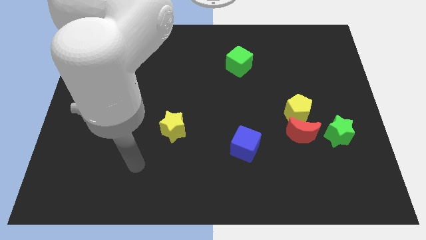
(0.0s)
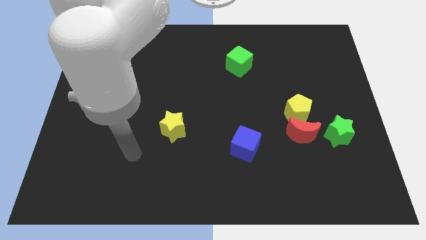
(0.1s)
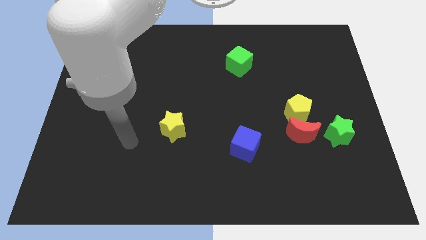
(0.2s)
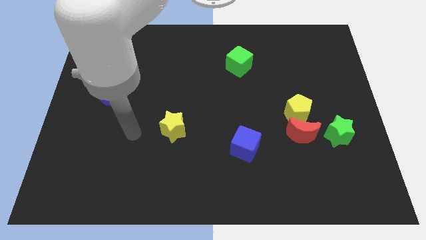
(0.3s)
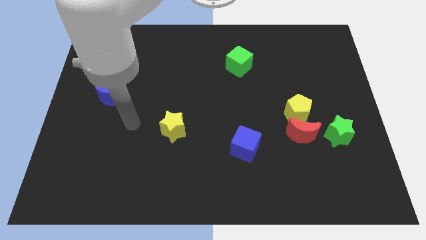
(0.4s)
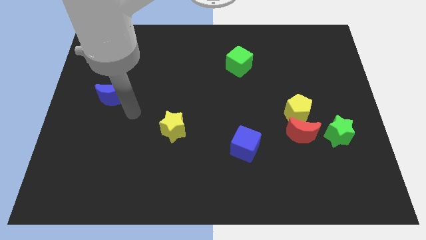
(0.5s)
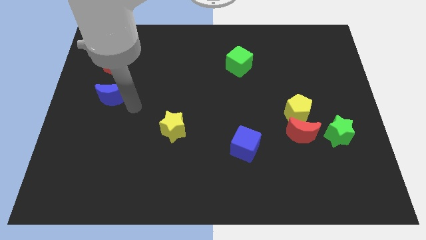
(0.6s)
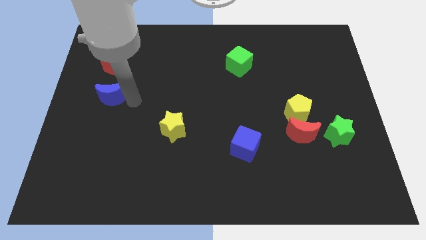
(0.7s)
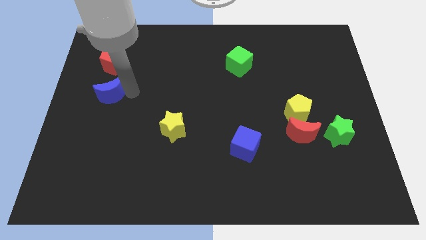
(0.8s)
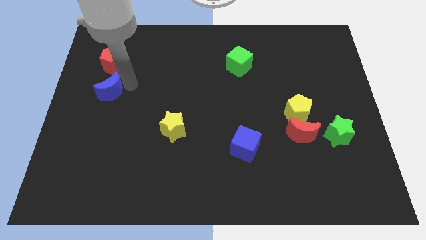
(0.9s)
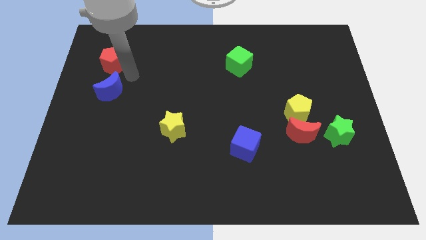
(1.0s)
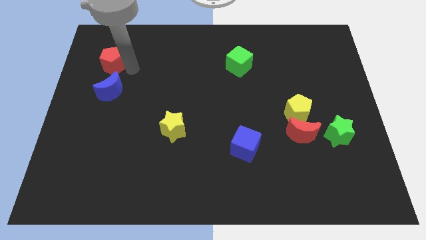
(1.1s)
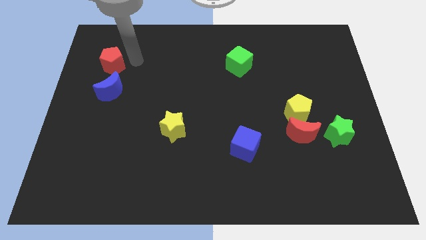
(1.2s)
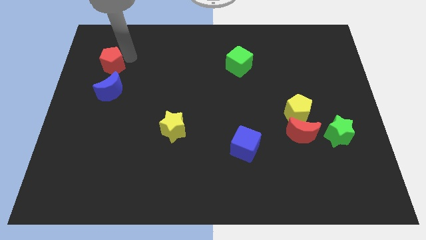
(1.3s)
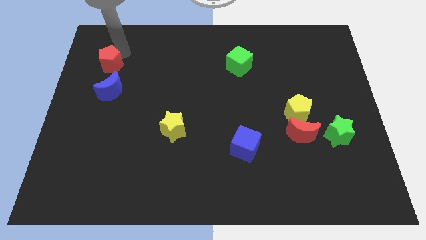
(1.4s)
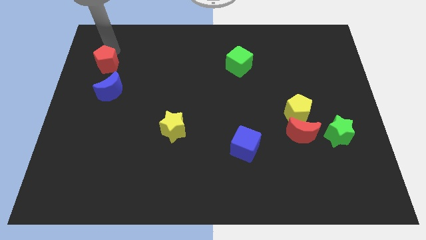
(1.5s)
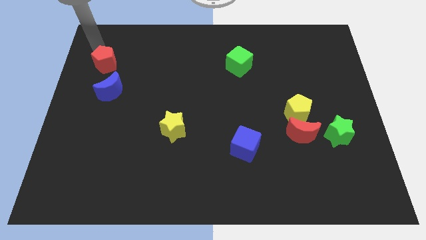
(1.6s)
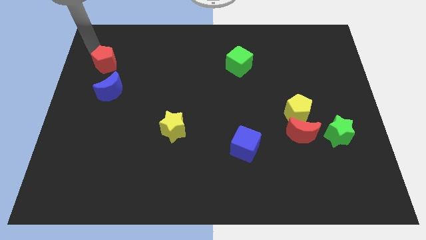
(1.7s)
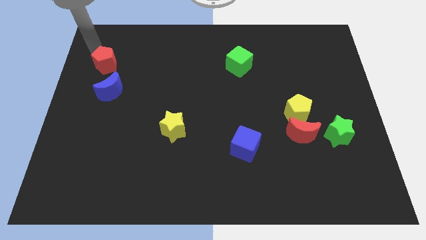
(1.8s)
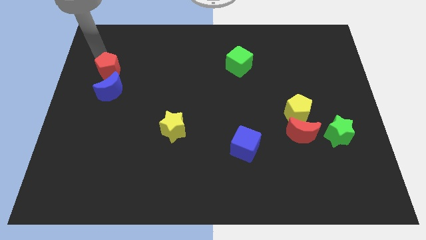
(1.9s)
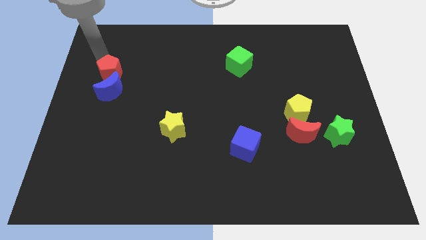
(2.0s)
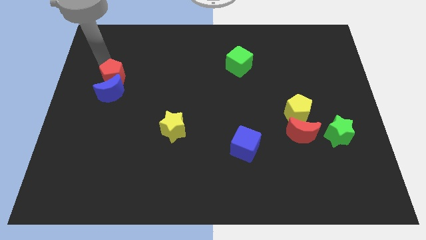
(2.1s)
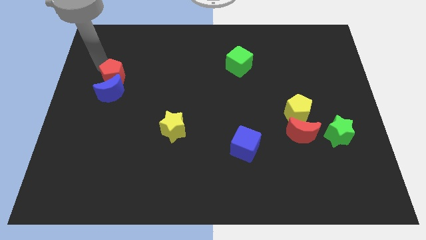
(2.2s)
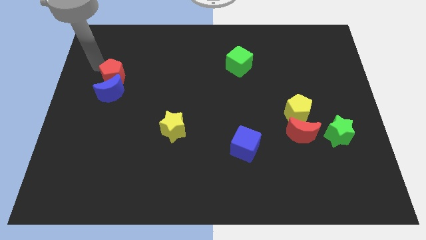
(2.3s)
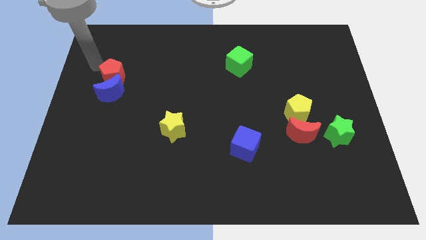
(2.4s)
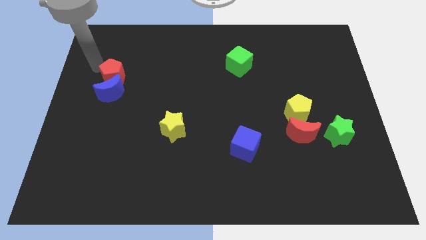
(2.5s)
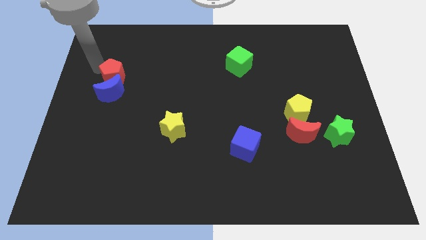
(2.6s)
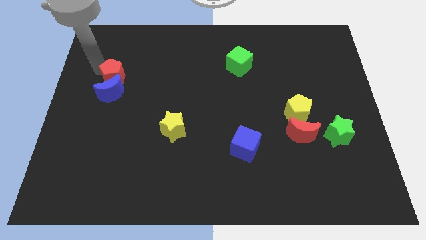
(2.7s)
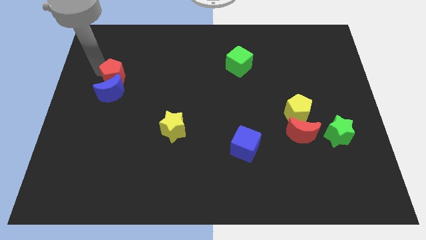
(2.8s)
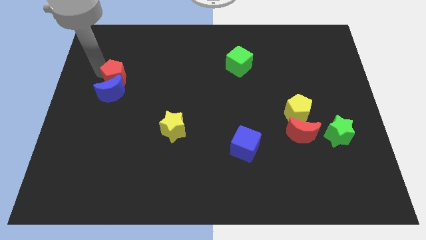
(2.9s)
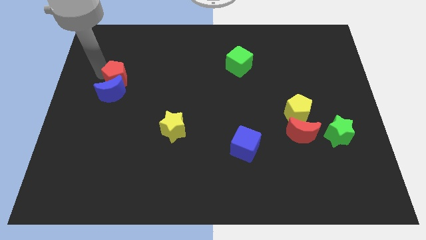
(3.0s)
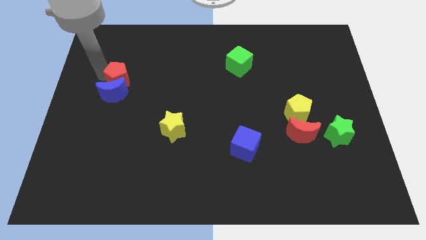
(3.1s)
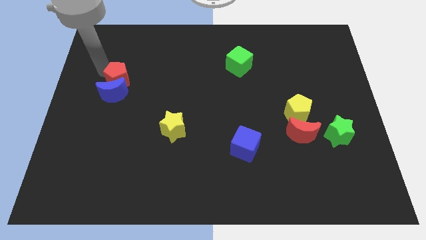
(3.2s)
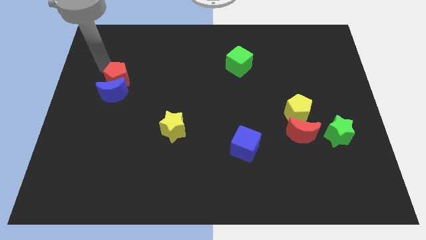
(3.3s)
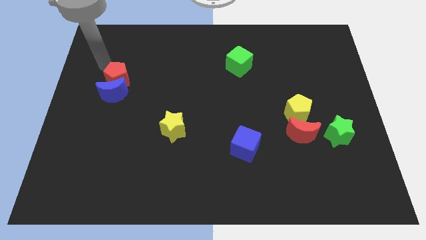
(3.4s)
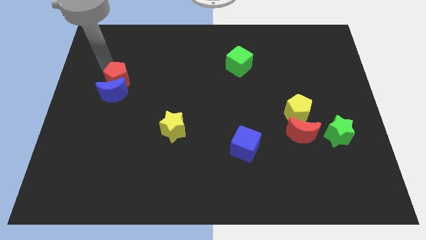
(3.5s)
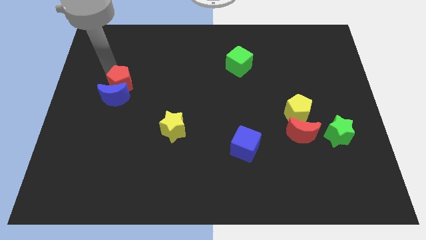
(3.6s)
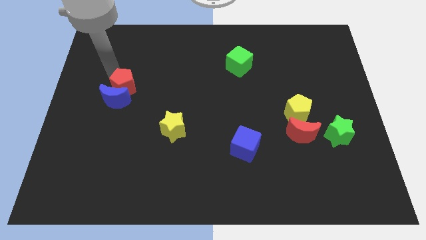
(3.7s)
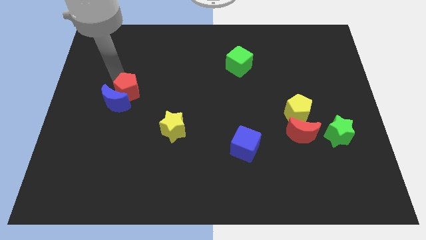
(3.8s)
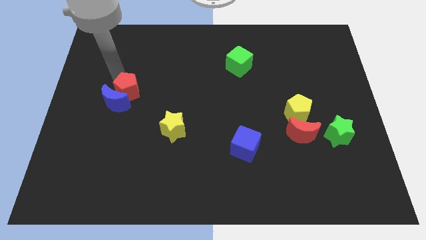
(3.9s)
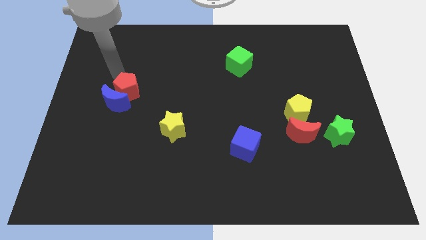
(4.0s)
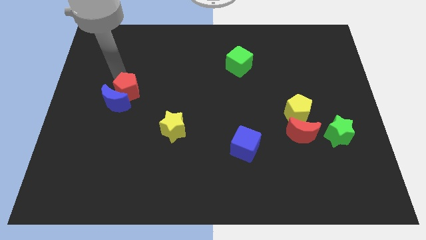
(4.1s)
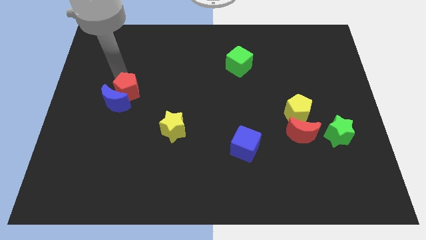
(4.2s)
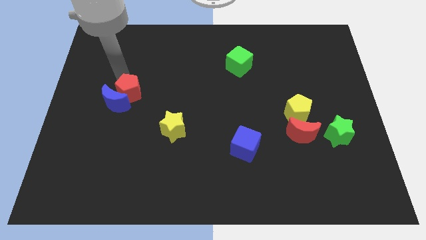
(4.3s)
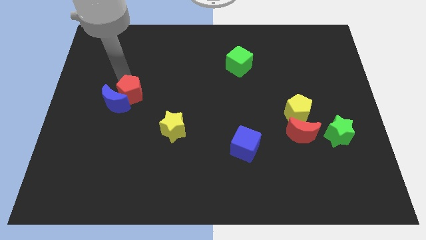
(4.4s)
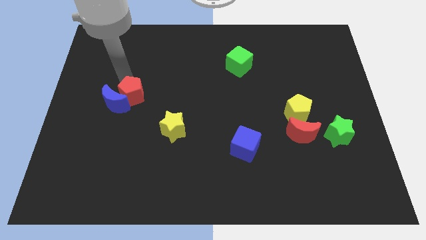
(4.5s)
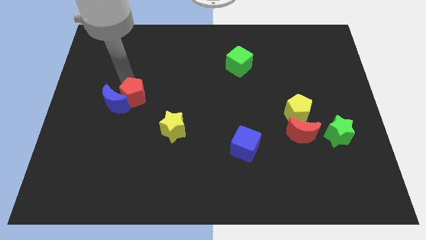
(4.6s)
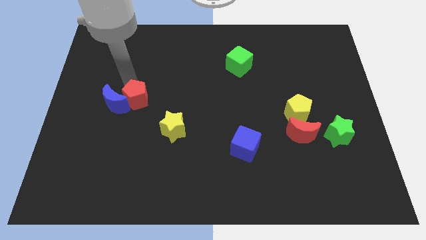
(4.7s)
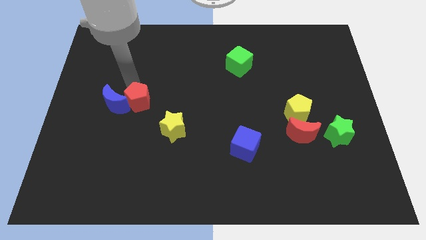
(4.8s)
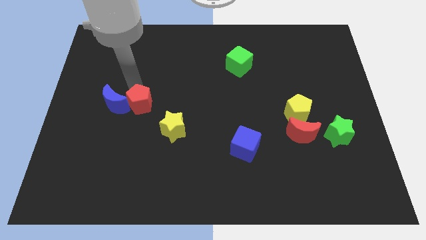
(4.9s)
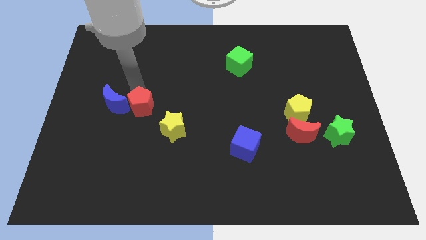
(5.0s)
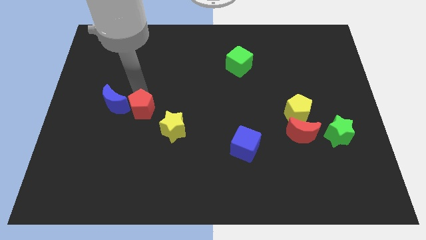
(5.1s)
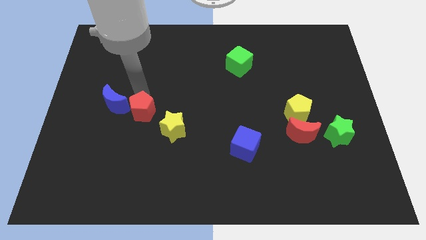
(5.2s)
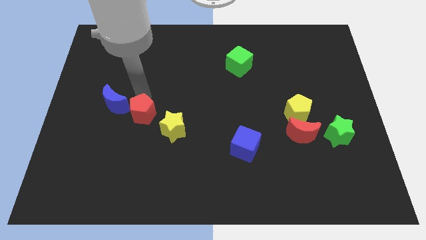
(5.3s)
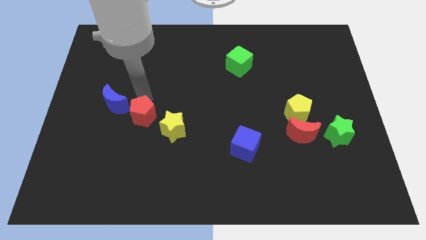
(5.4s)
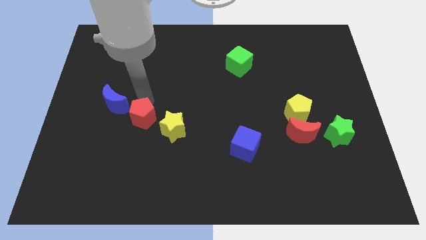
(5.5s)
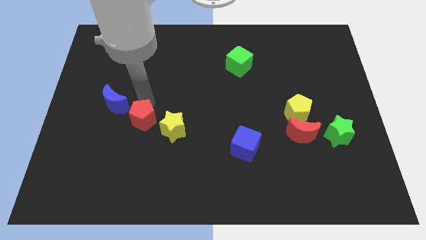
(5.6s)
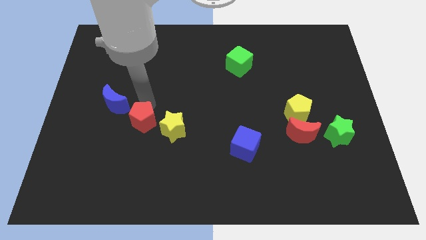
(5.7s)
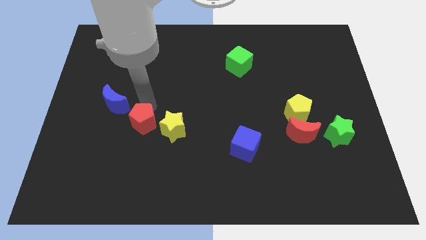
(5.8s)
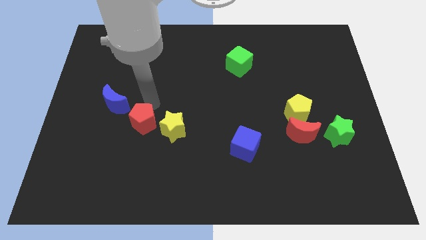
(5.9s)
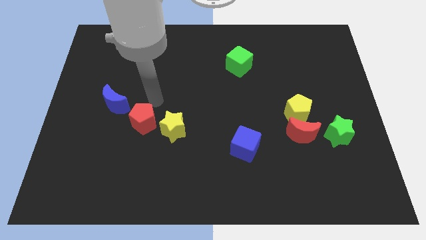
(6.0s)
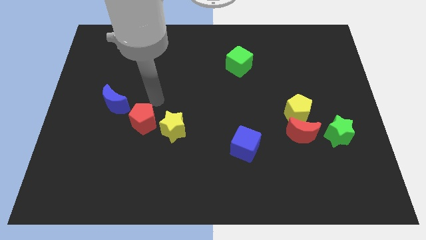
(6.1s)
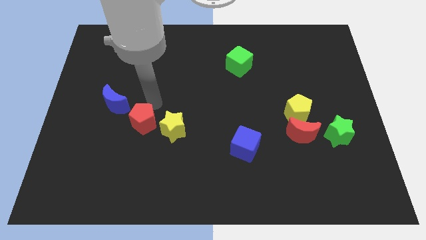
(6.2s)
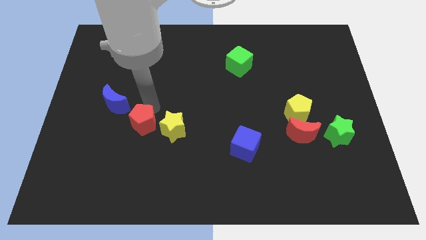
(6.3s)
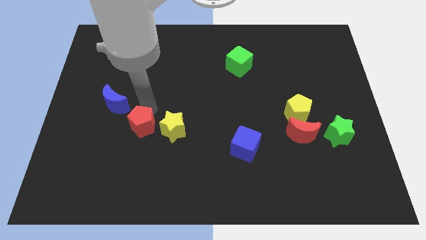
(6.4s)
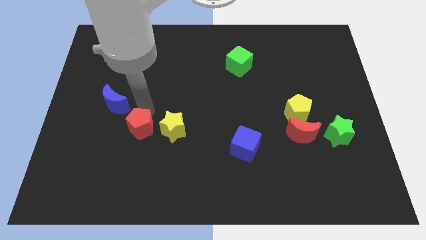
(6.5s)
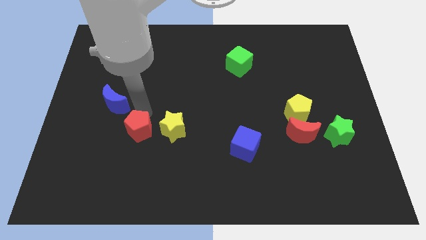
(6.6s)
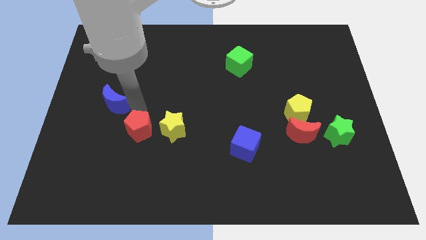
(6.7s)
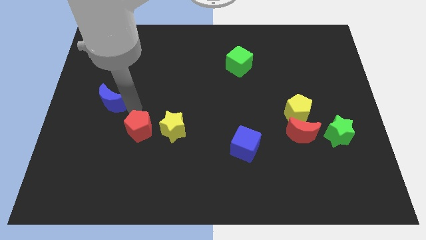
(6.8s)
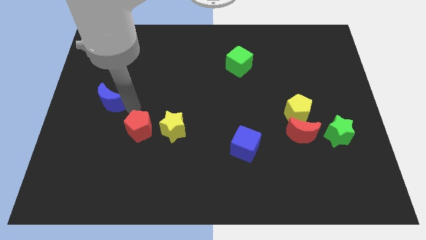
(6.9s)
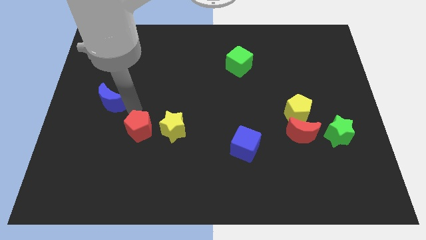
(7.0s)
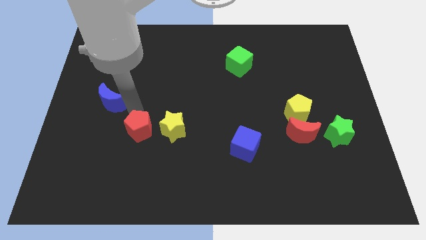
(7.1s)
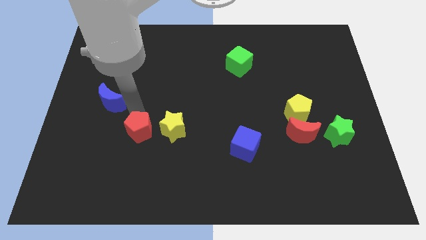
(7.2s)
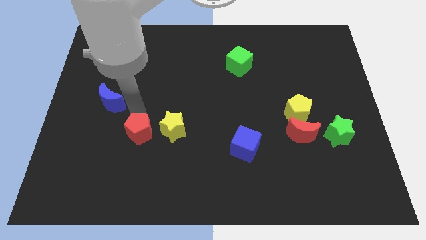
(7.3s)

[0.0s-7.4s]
move the red pentagon diagonally down and to the left of the yellow star

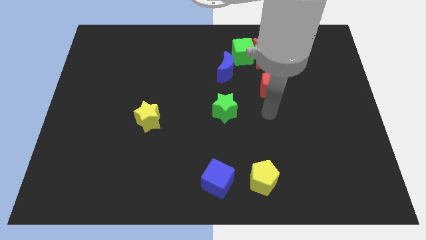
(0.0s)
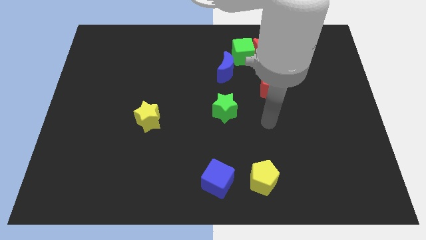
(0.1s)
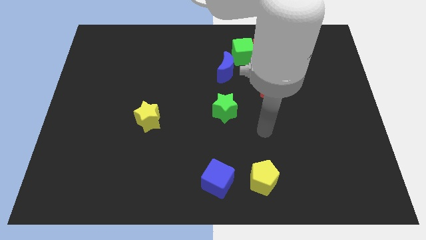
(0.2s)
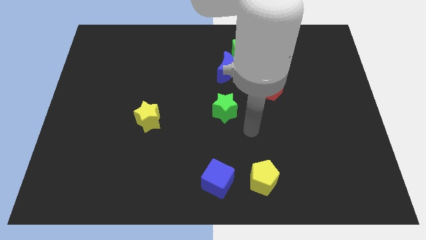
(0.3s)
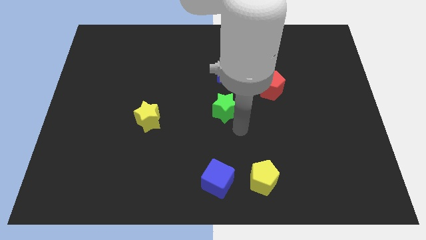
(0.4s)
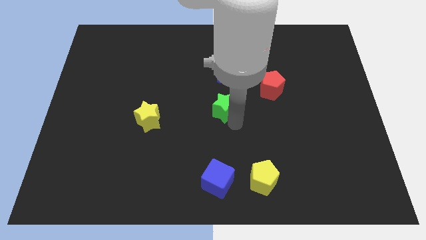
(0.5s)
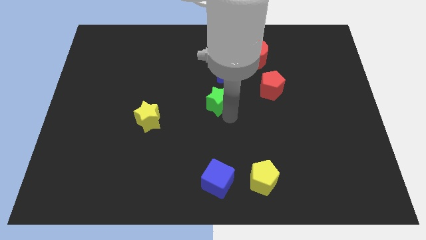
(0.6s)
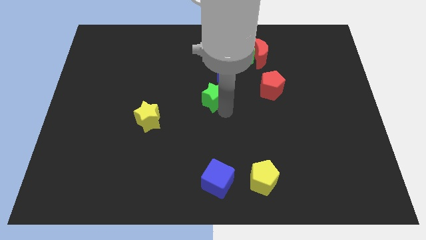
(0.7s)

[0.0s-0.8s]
move the green star diagonally down and to the left of the blue moon
